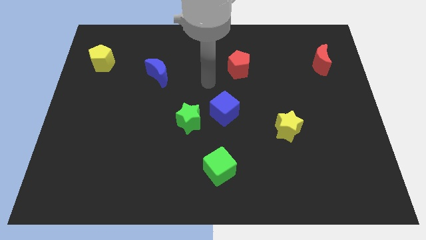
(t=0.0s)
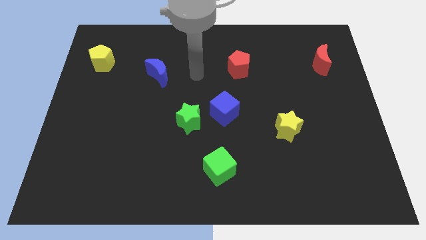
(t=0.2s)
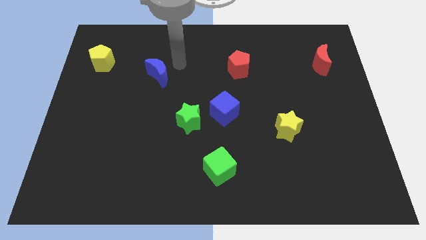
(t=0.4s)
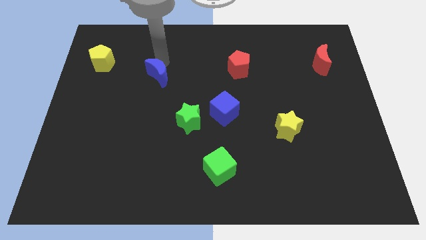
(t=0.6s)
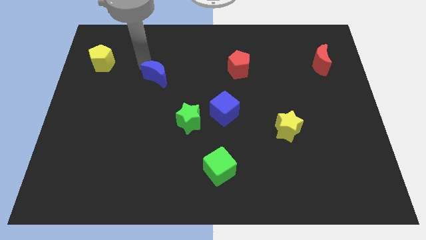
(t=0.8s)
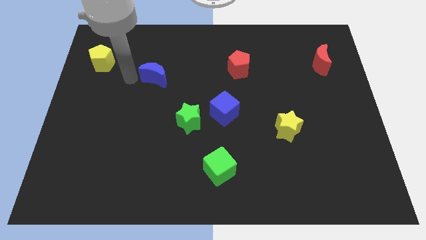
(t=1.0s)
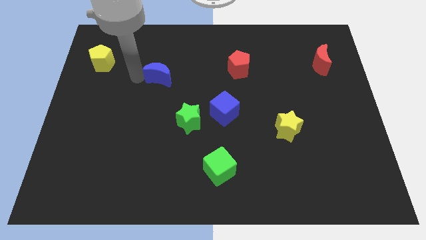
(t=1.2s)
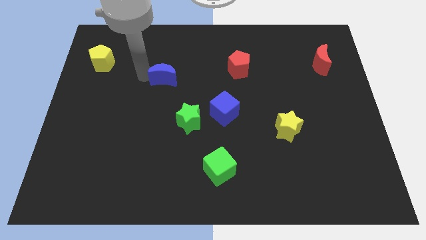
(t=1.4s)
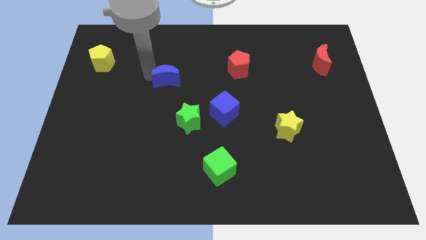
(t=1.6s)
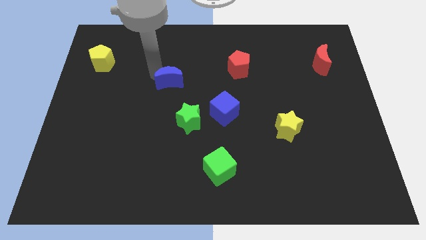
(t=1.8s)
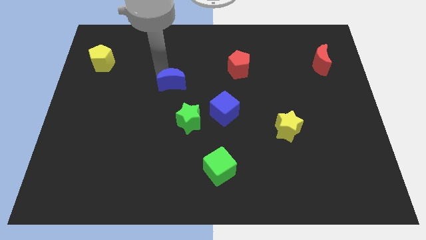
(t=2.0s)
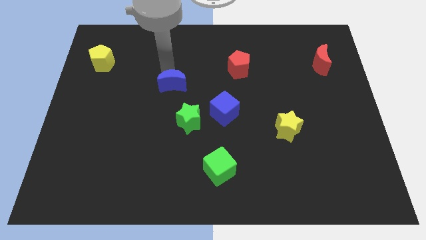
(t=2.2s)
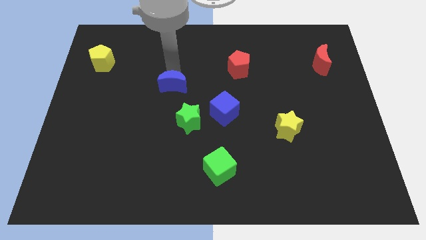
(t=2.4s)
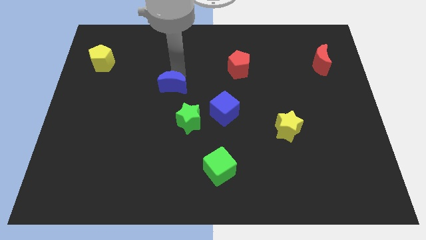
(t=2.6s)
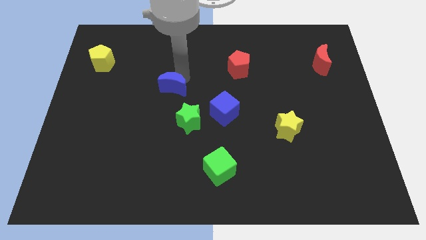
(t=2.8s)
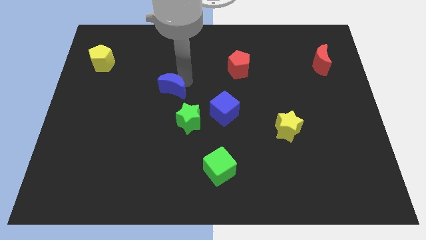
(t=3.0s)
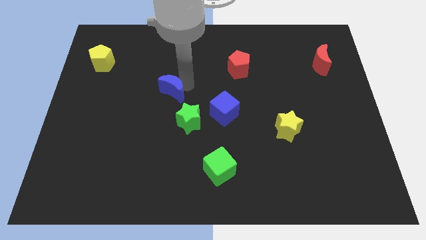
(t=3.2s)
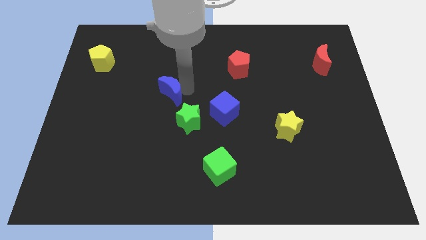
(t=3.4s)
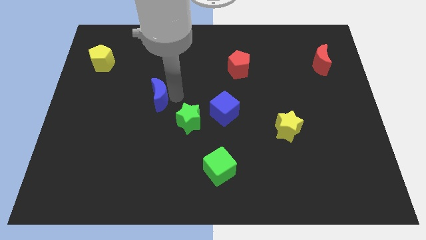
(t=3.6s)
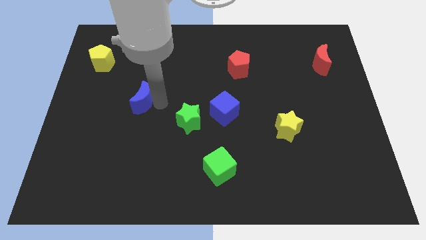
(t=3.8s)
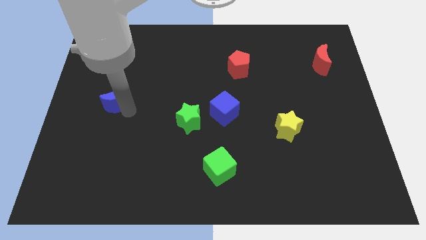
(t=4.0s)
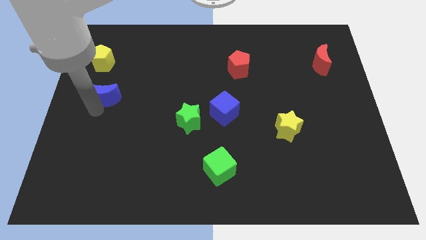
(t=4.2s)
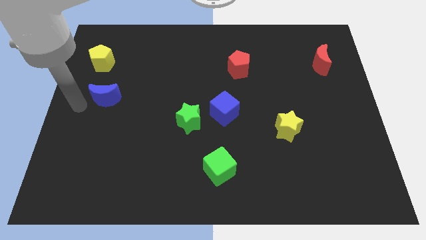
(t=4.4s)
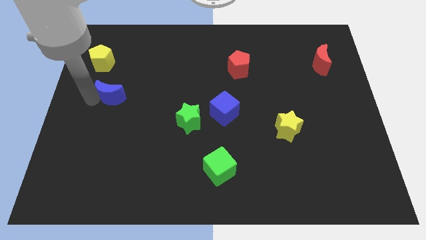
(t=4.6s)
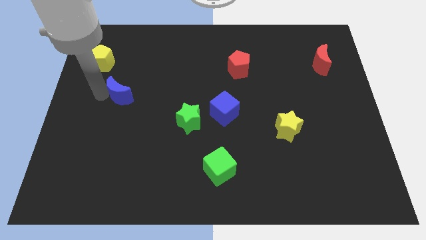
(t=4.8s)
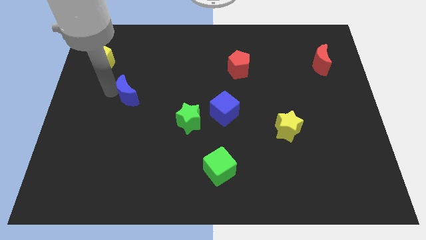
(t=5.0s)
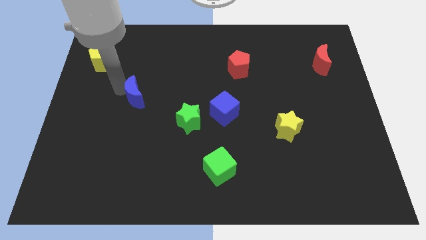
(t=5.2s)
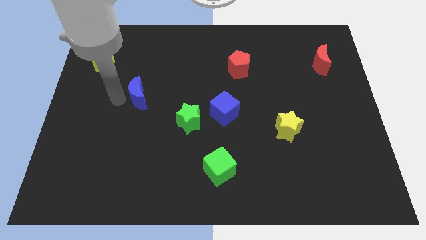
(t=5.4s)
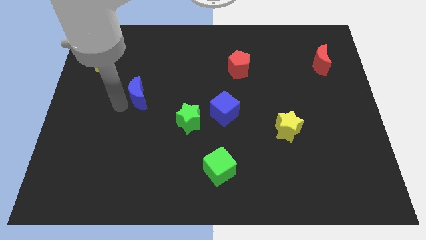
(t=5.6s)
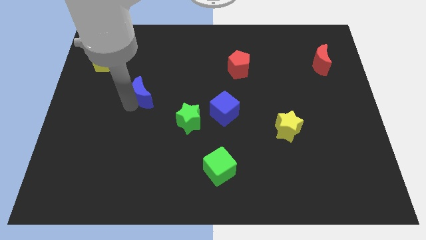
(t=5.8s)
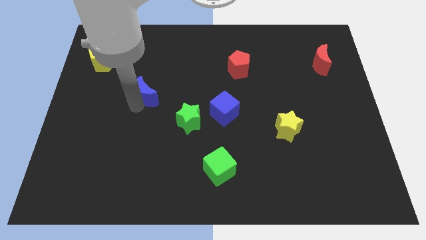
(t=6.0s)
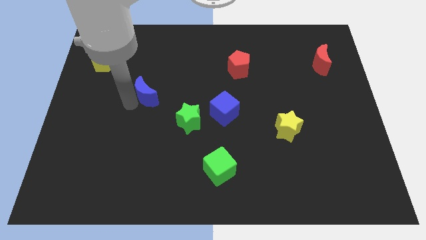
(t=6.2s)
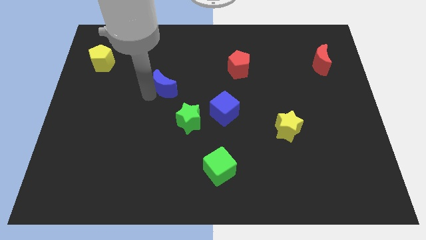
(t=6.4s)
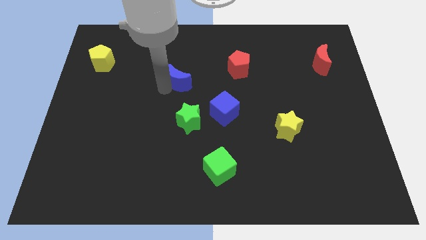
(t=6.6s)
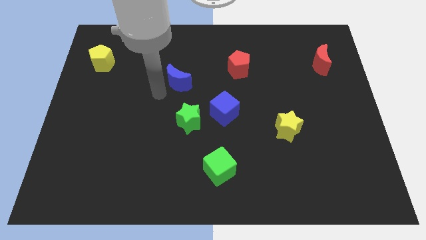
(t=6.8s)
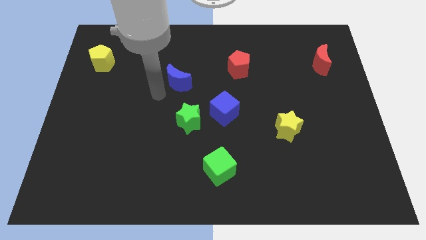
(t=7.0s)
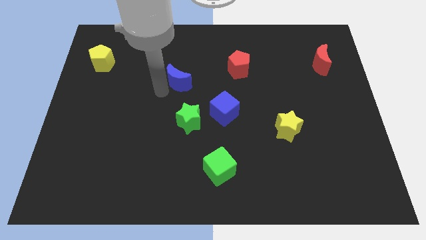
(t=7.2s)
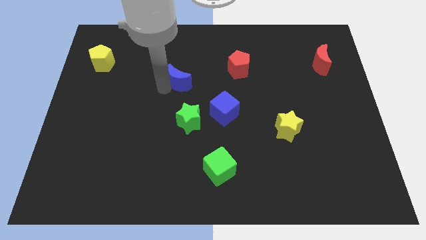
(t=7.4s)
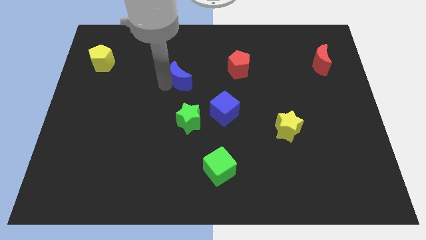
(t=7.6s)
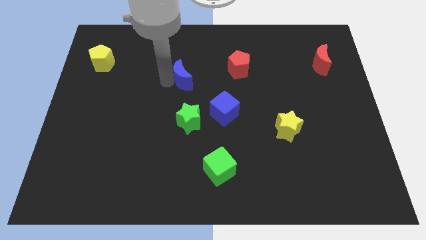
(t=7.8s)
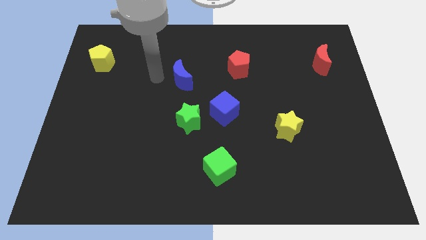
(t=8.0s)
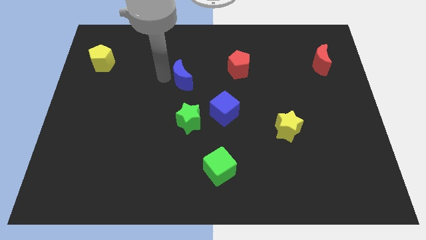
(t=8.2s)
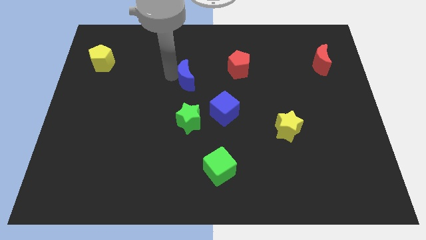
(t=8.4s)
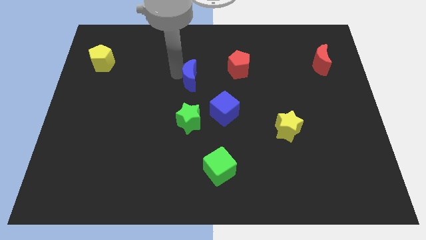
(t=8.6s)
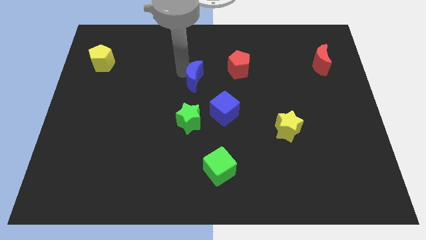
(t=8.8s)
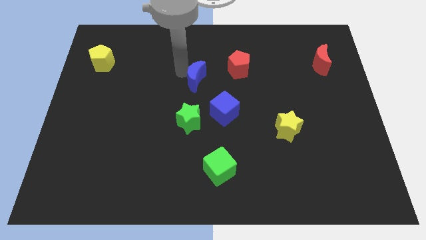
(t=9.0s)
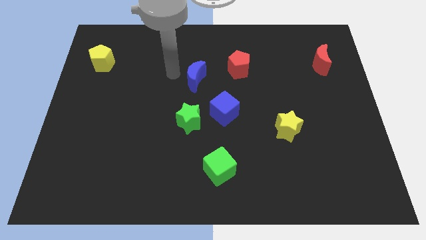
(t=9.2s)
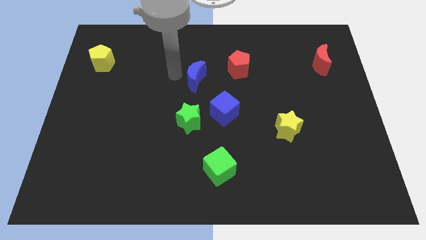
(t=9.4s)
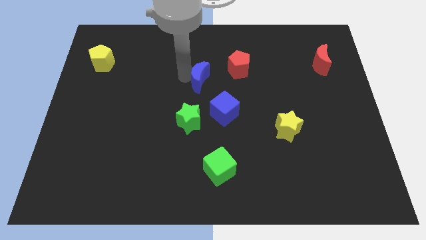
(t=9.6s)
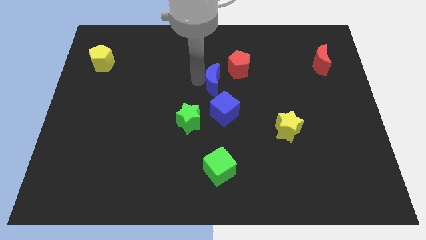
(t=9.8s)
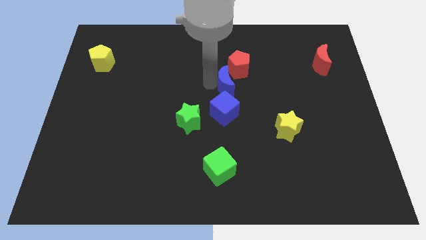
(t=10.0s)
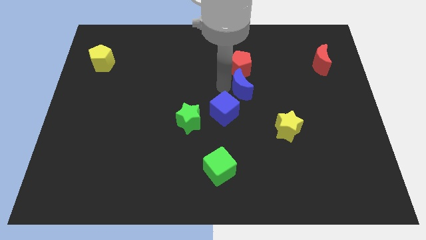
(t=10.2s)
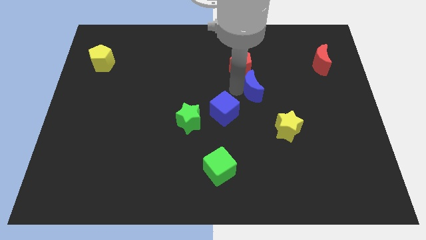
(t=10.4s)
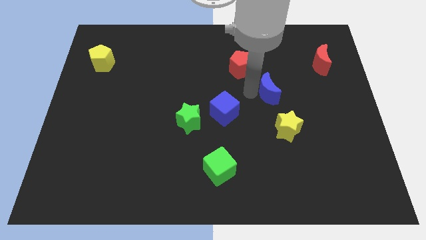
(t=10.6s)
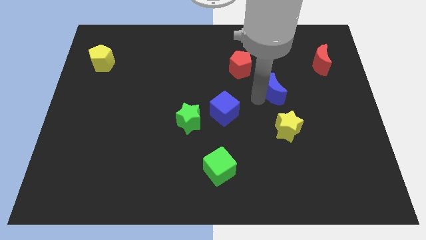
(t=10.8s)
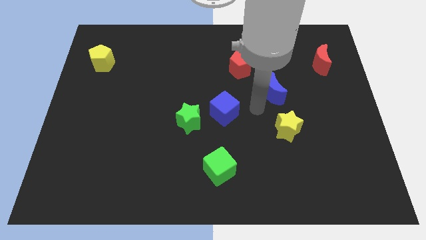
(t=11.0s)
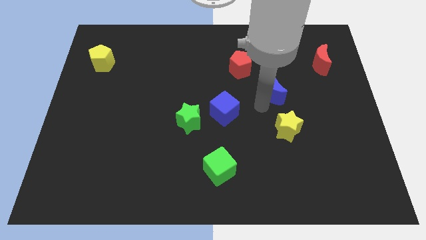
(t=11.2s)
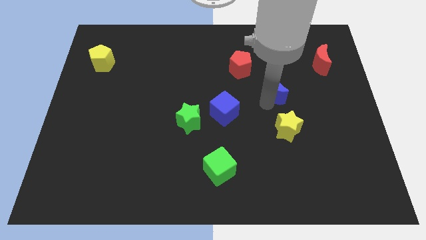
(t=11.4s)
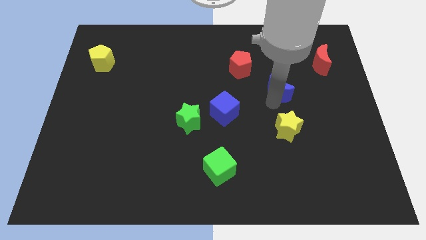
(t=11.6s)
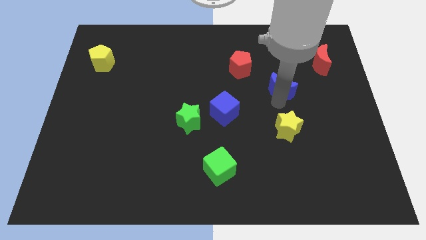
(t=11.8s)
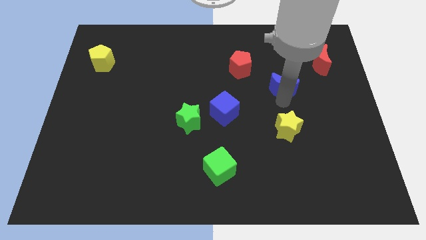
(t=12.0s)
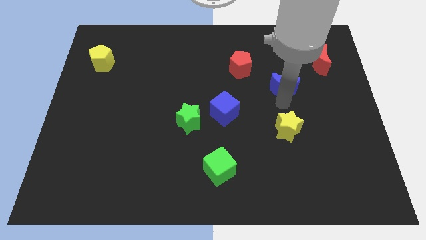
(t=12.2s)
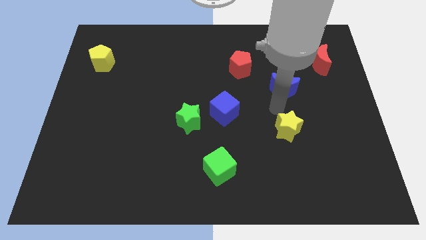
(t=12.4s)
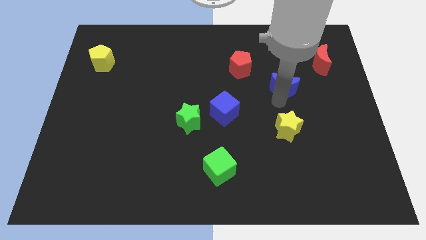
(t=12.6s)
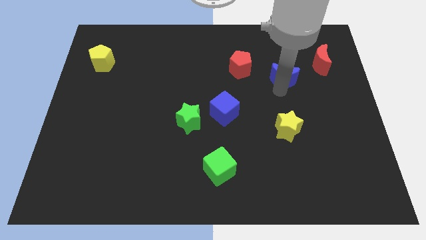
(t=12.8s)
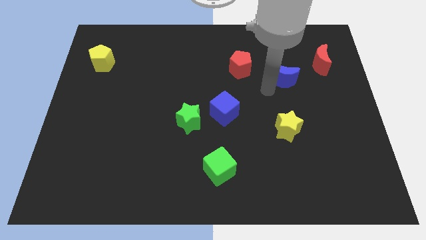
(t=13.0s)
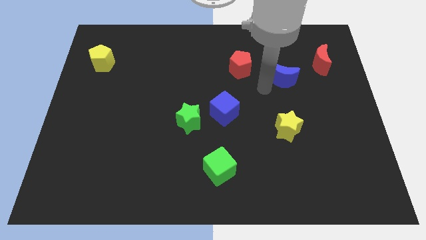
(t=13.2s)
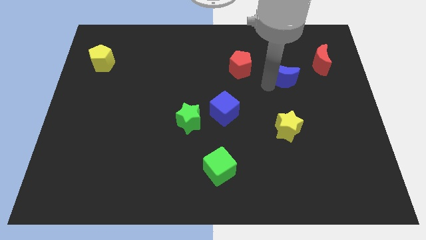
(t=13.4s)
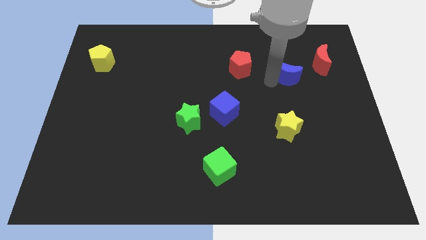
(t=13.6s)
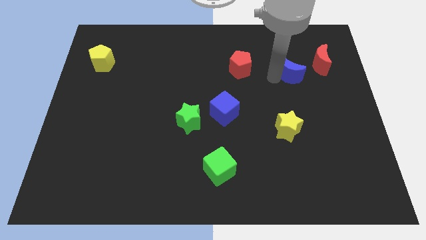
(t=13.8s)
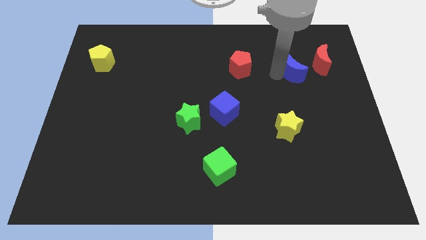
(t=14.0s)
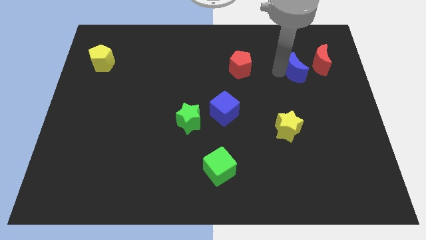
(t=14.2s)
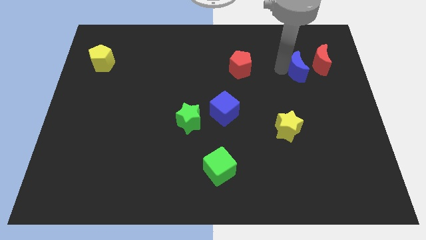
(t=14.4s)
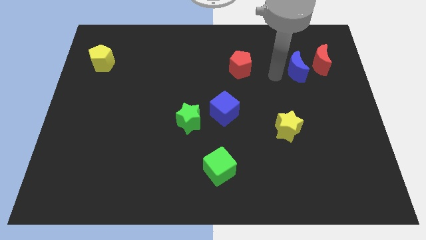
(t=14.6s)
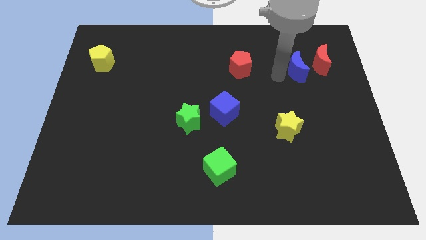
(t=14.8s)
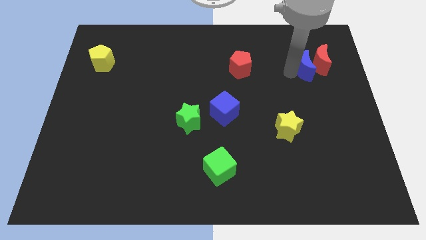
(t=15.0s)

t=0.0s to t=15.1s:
move the blue moon towards the red moon
